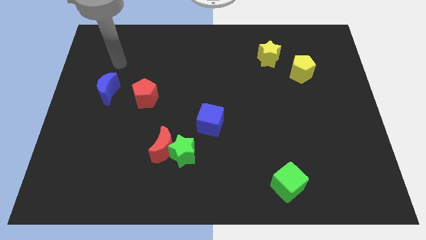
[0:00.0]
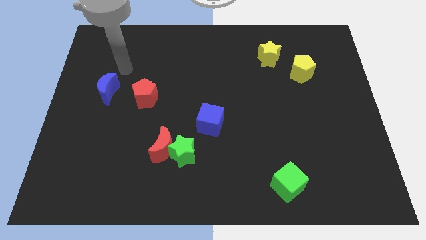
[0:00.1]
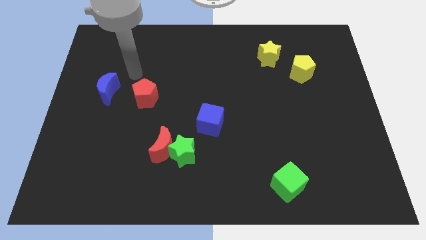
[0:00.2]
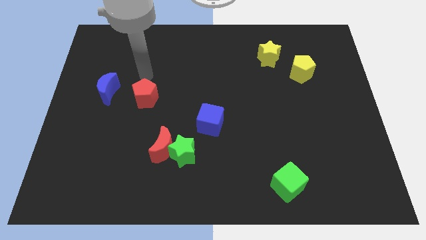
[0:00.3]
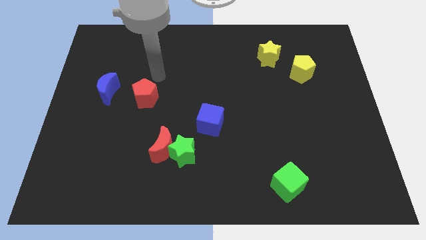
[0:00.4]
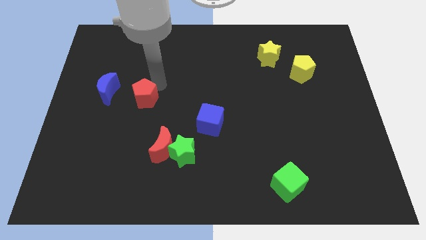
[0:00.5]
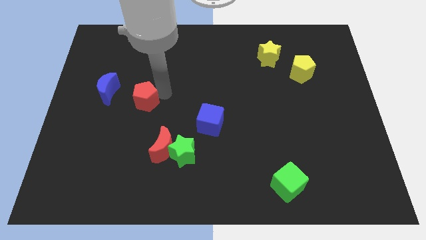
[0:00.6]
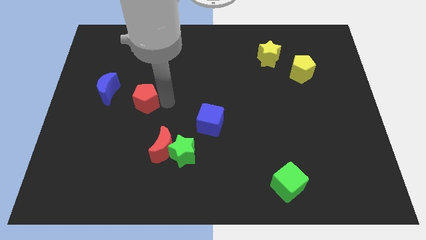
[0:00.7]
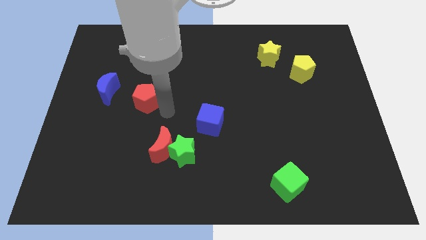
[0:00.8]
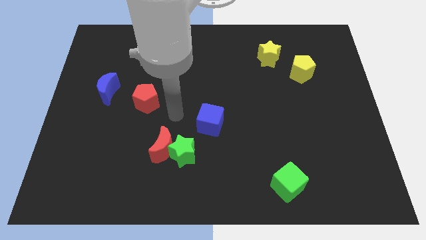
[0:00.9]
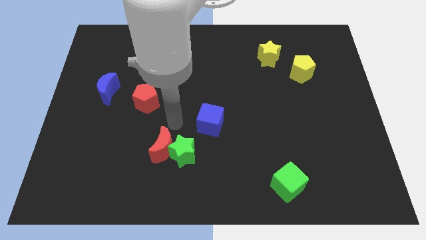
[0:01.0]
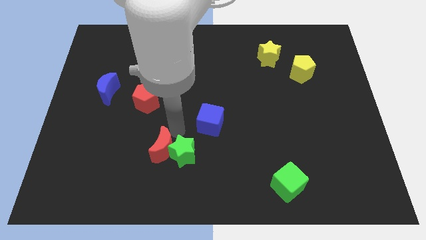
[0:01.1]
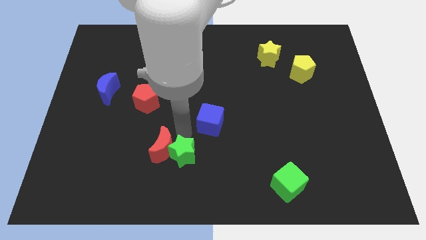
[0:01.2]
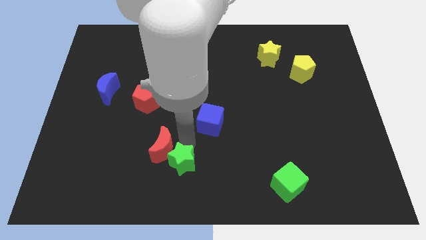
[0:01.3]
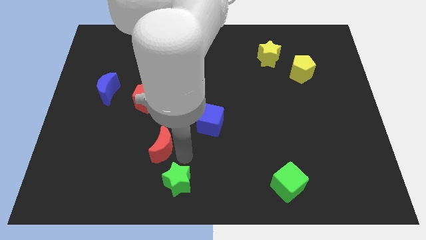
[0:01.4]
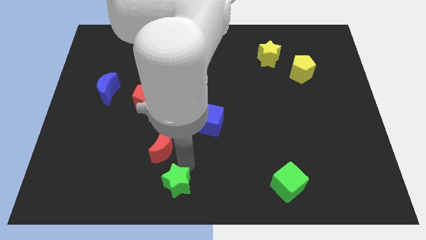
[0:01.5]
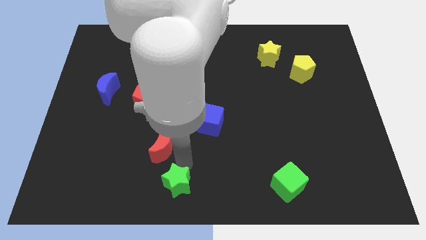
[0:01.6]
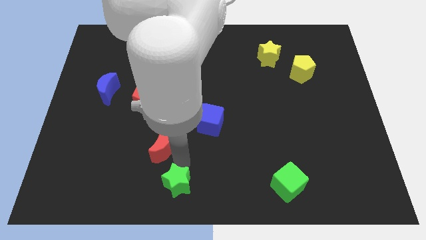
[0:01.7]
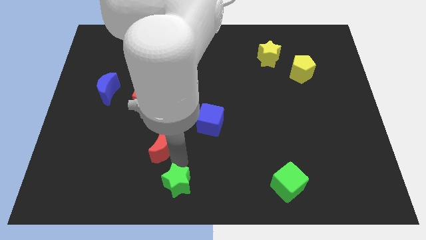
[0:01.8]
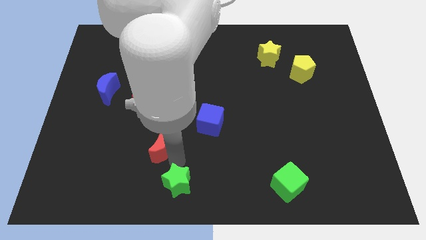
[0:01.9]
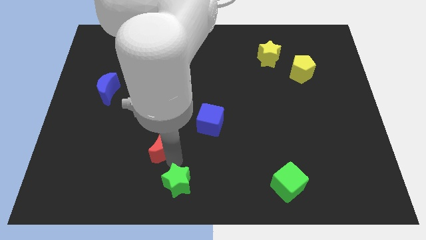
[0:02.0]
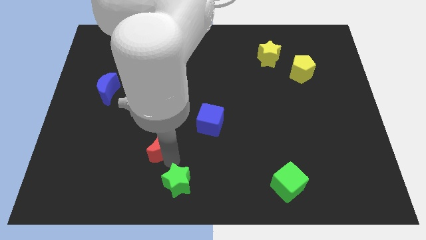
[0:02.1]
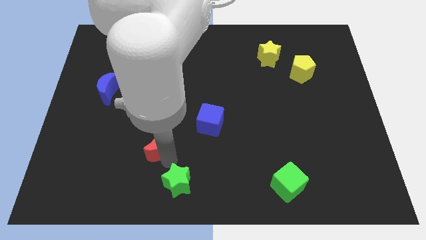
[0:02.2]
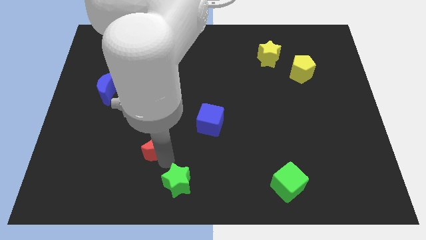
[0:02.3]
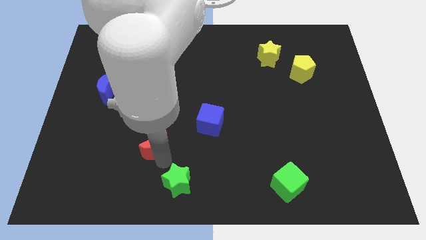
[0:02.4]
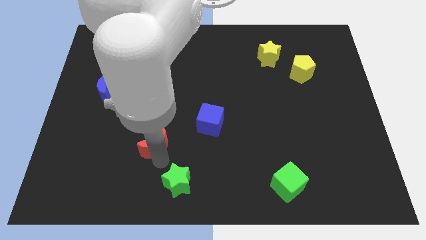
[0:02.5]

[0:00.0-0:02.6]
separate the red moon from the green star

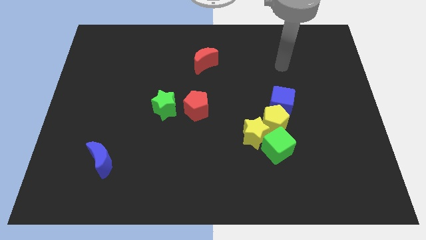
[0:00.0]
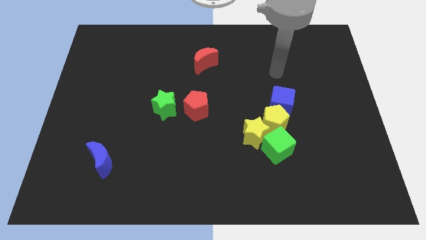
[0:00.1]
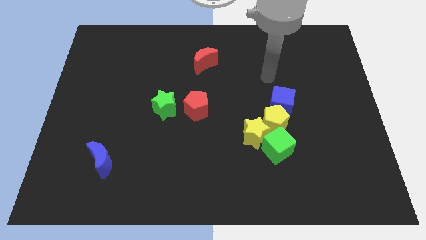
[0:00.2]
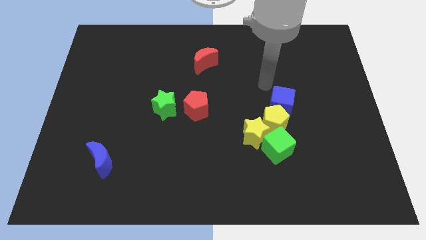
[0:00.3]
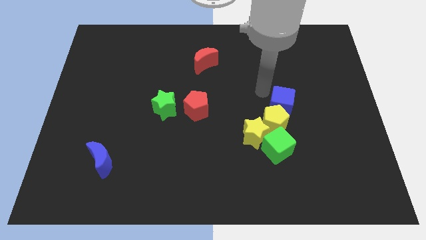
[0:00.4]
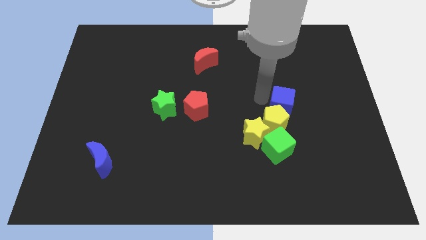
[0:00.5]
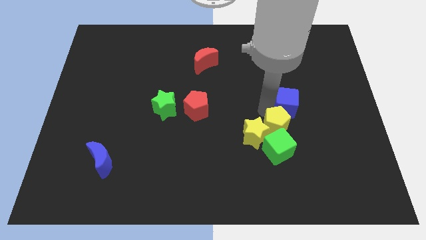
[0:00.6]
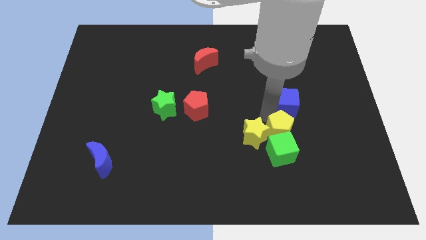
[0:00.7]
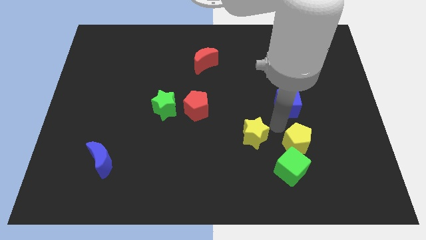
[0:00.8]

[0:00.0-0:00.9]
move the blue cube away from the yellow pentagon

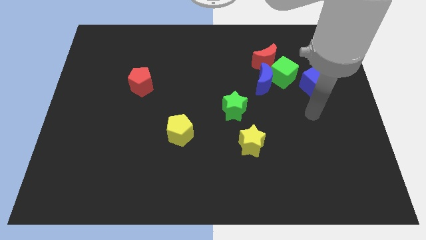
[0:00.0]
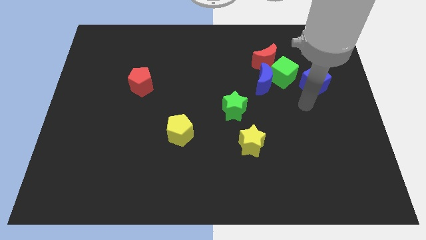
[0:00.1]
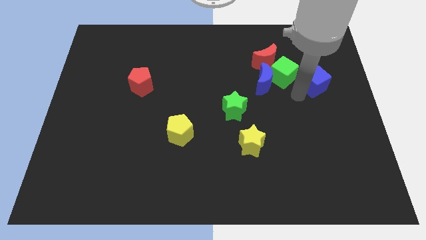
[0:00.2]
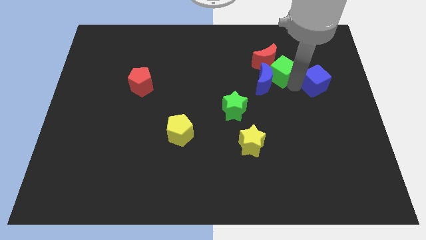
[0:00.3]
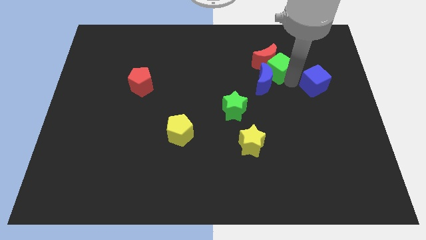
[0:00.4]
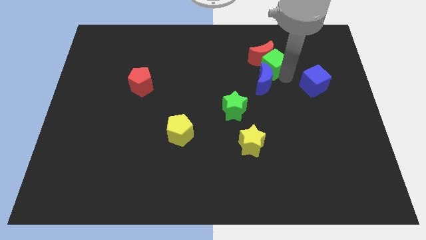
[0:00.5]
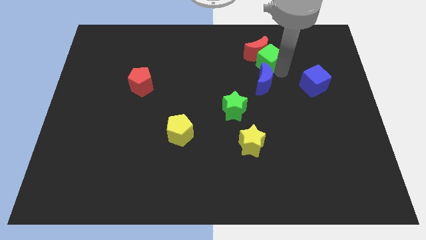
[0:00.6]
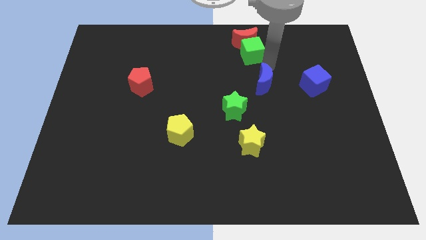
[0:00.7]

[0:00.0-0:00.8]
pull the blue moon apart from the green cube and red moon

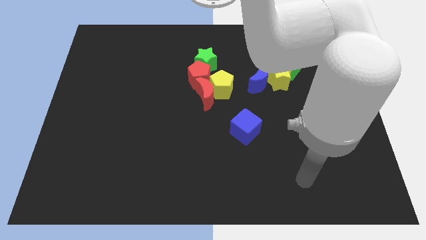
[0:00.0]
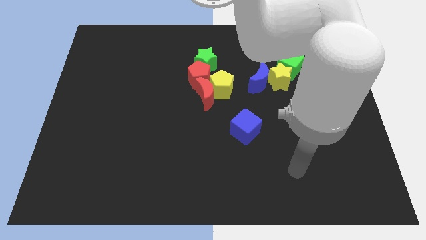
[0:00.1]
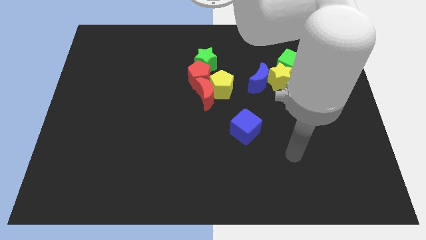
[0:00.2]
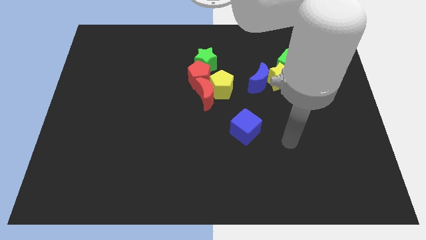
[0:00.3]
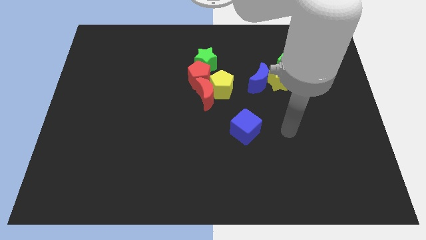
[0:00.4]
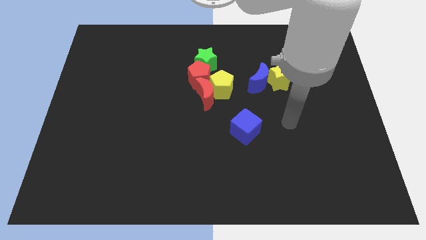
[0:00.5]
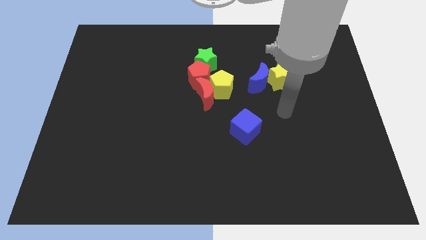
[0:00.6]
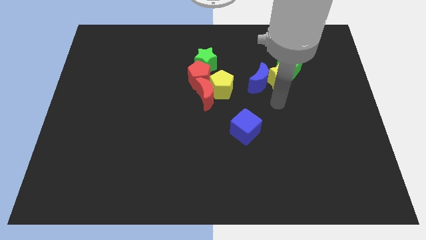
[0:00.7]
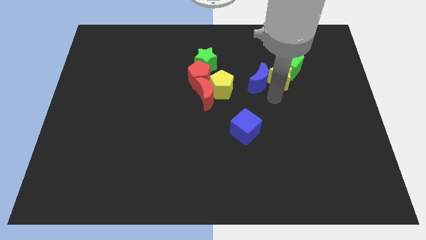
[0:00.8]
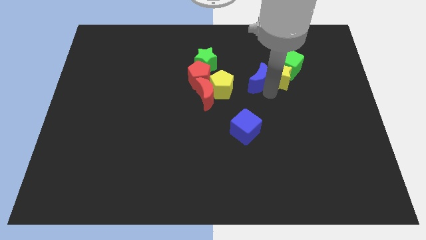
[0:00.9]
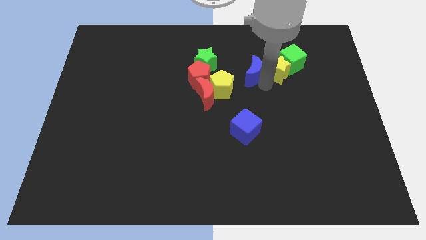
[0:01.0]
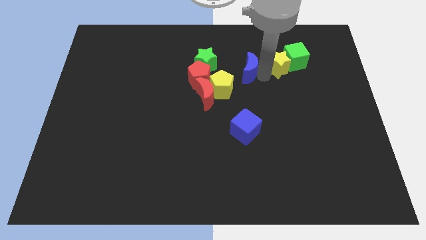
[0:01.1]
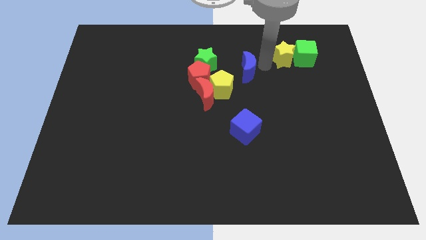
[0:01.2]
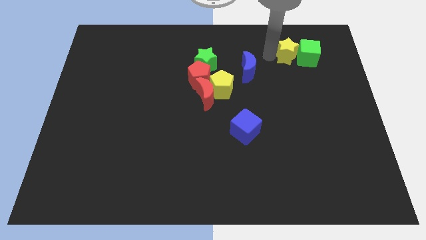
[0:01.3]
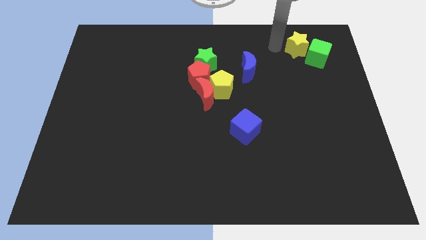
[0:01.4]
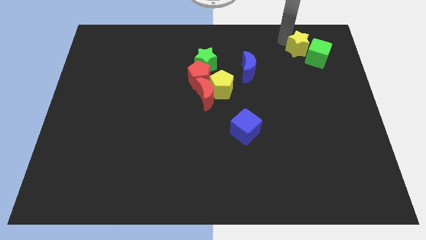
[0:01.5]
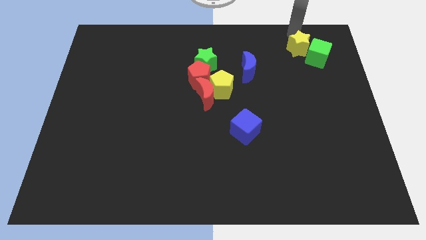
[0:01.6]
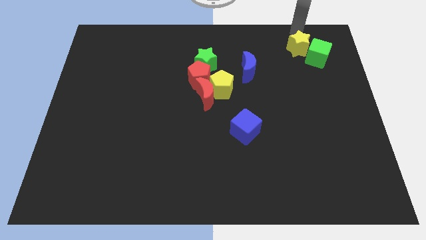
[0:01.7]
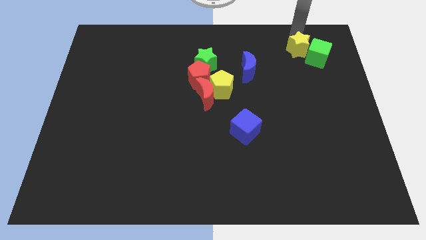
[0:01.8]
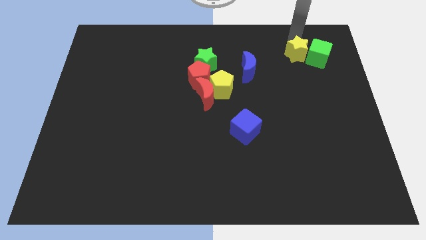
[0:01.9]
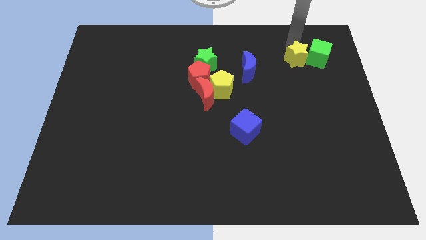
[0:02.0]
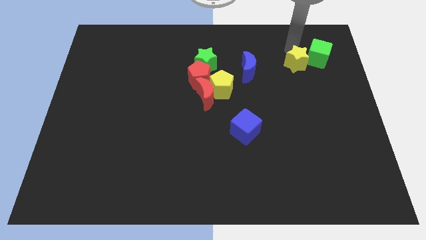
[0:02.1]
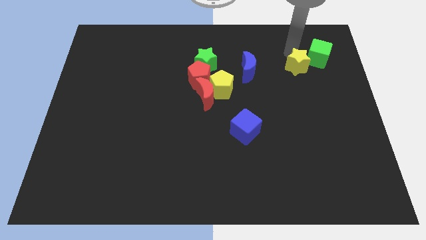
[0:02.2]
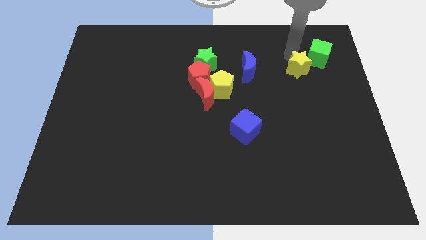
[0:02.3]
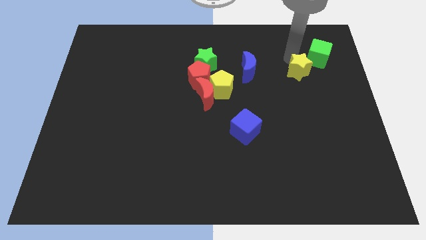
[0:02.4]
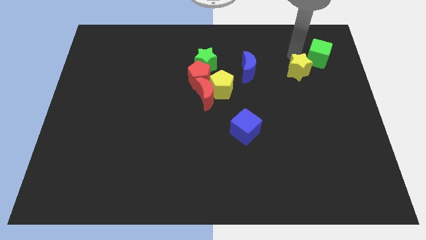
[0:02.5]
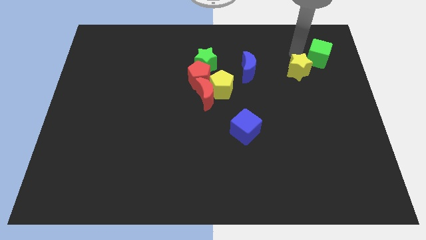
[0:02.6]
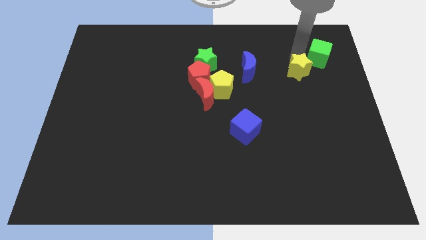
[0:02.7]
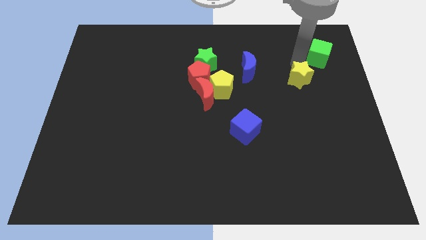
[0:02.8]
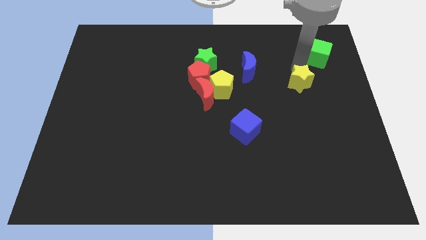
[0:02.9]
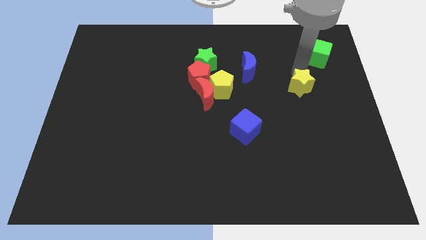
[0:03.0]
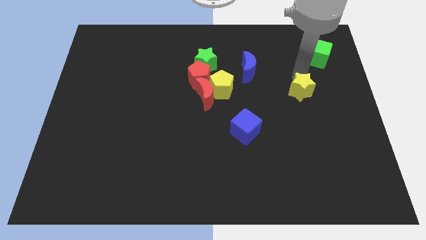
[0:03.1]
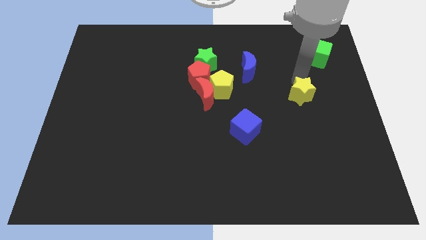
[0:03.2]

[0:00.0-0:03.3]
pull the yellow star apart from the green cube and blue moon

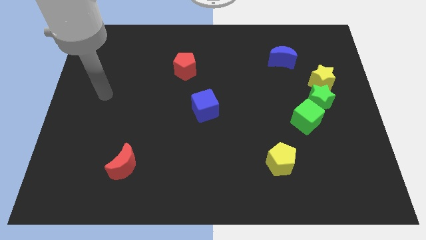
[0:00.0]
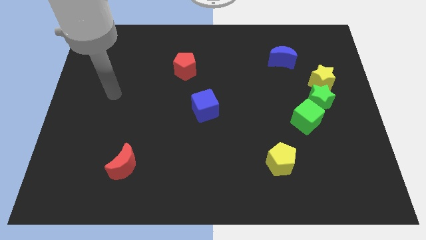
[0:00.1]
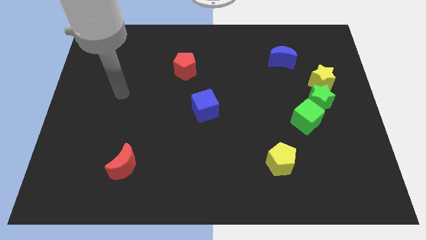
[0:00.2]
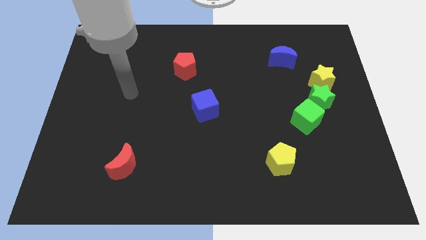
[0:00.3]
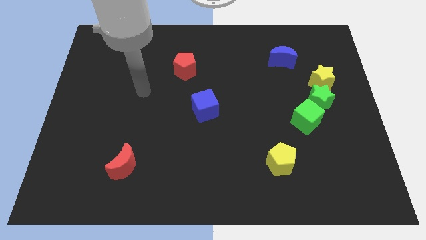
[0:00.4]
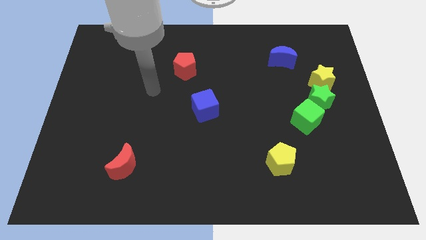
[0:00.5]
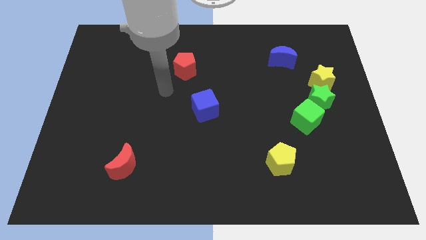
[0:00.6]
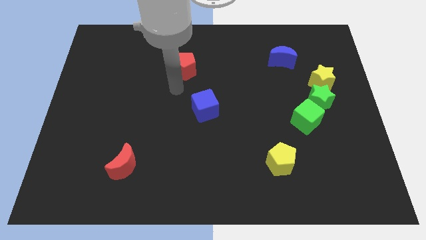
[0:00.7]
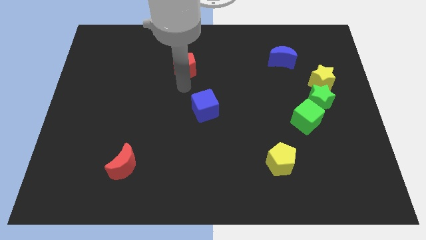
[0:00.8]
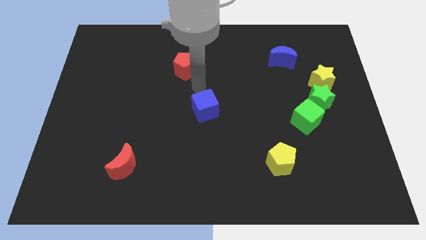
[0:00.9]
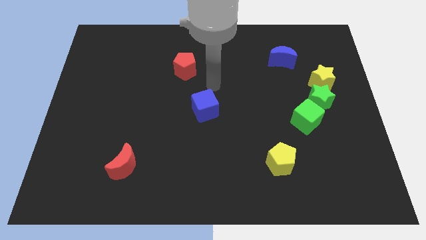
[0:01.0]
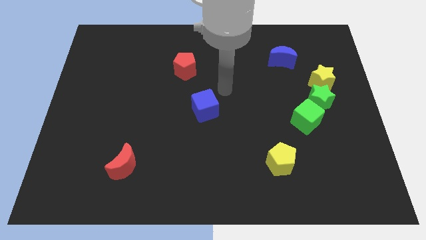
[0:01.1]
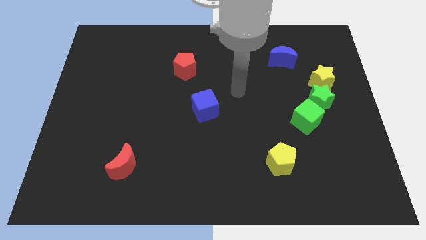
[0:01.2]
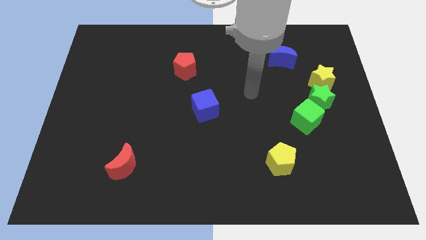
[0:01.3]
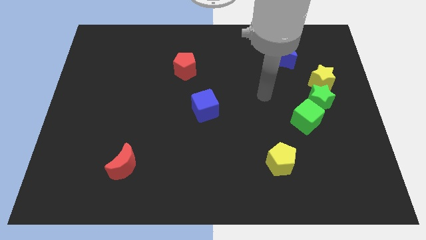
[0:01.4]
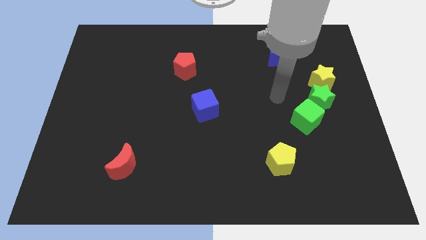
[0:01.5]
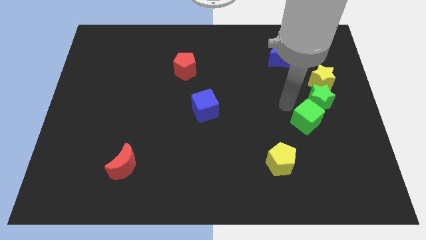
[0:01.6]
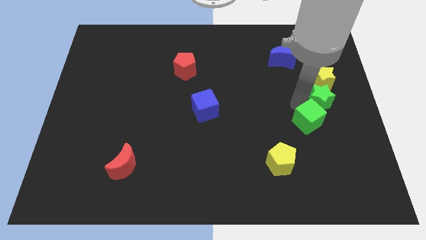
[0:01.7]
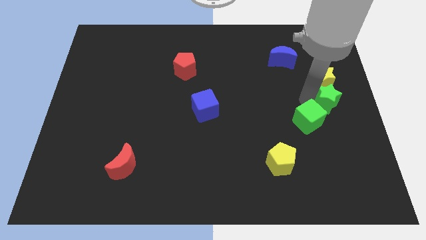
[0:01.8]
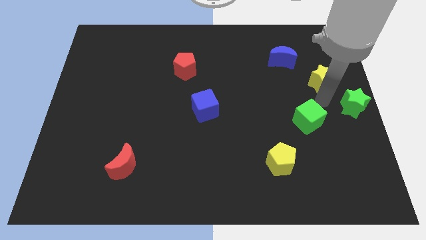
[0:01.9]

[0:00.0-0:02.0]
move the yellow star away from the green star
